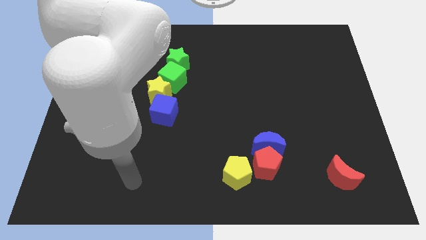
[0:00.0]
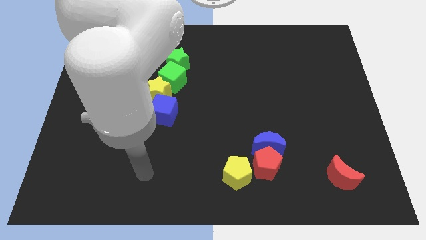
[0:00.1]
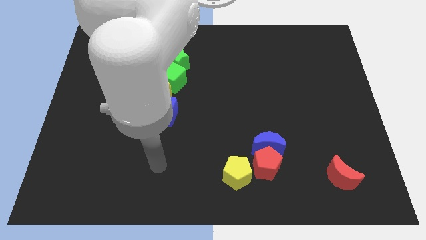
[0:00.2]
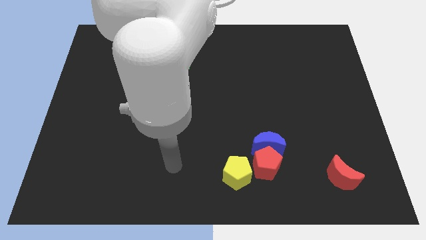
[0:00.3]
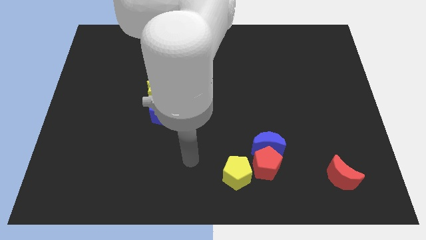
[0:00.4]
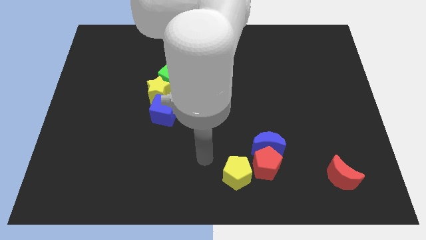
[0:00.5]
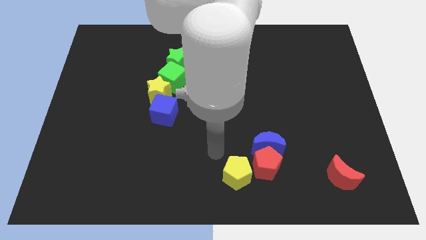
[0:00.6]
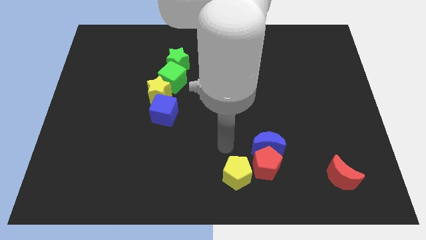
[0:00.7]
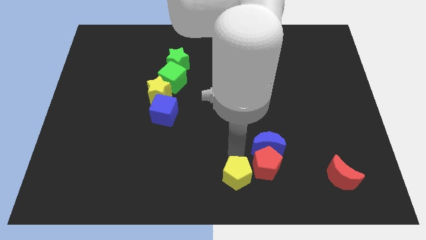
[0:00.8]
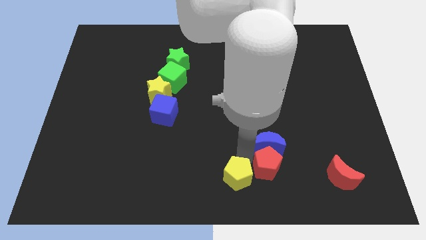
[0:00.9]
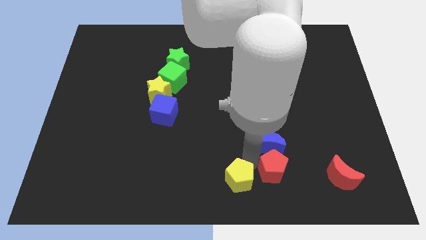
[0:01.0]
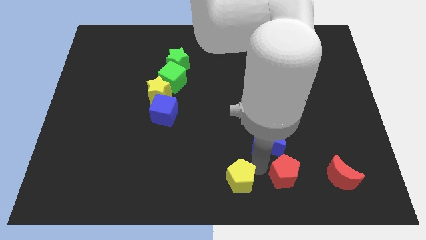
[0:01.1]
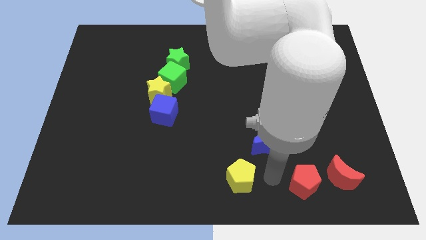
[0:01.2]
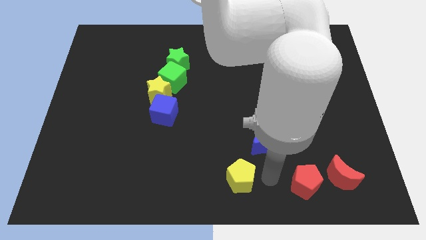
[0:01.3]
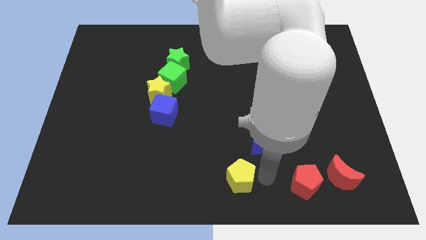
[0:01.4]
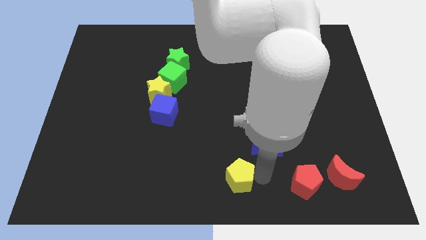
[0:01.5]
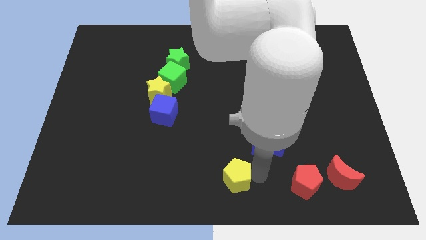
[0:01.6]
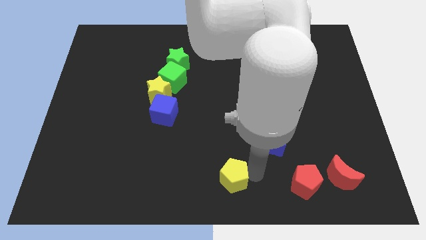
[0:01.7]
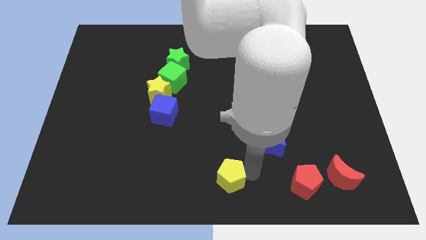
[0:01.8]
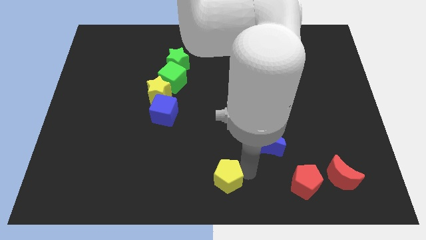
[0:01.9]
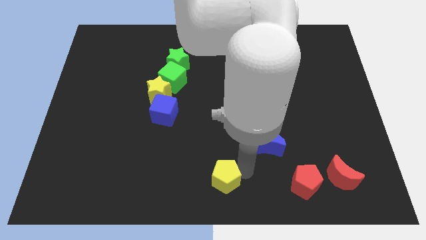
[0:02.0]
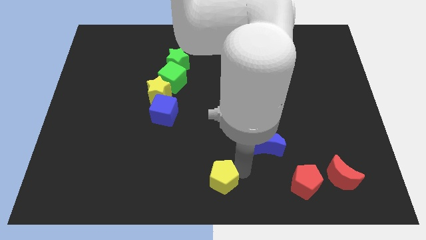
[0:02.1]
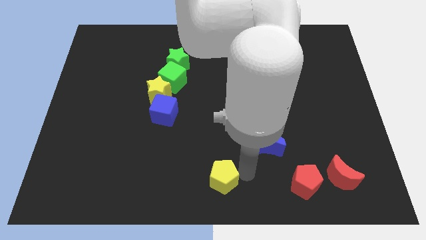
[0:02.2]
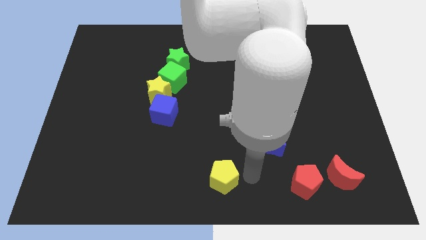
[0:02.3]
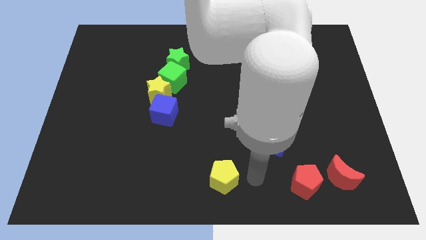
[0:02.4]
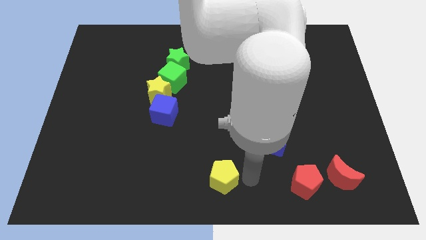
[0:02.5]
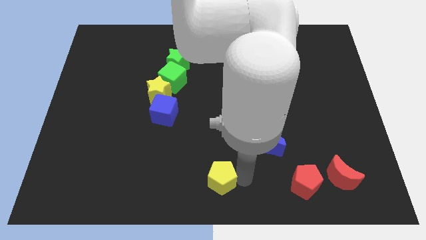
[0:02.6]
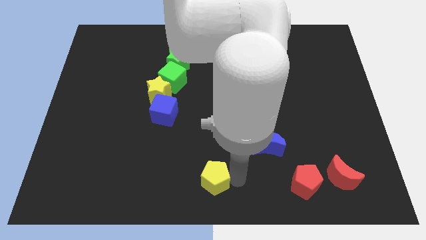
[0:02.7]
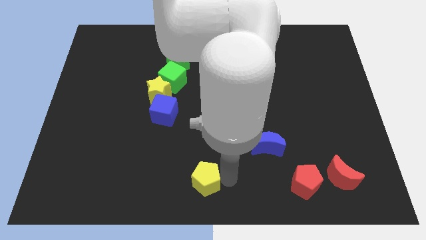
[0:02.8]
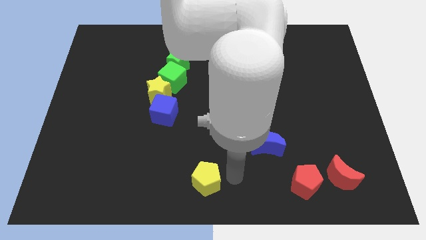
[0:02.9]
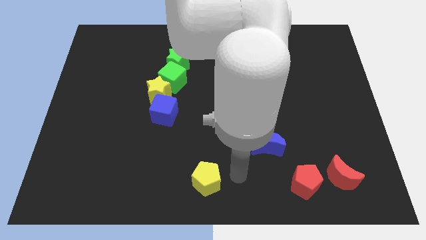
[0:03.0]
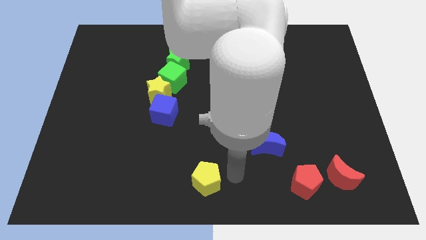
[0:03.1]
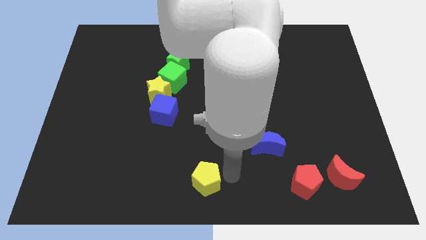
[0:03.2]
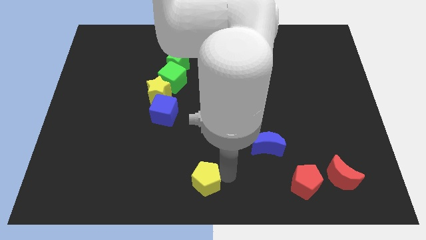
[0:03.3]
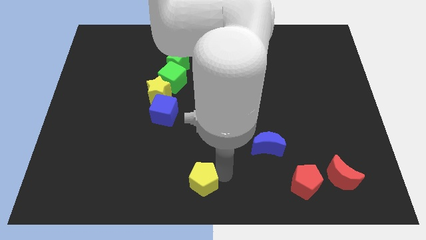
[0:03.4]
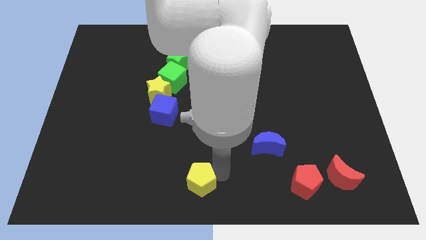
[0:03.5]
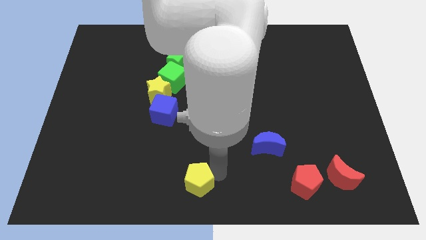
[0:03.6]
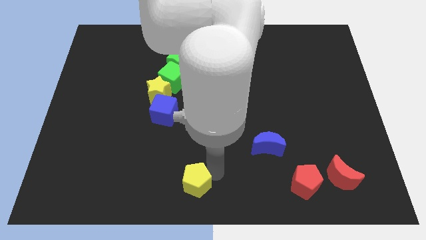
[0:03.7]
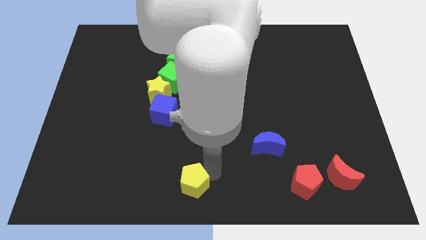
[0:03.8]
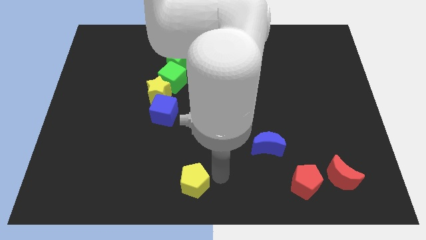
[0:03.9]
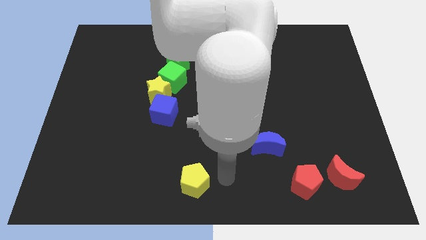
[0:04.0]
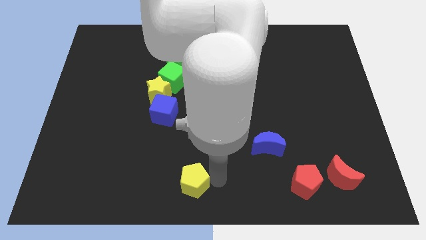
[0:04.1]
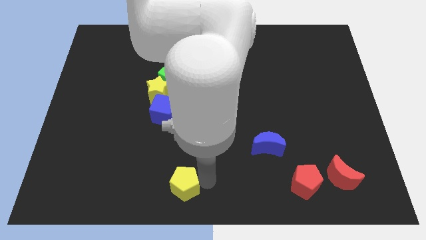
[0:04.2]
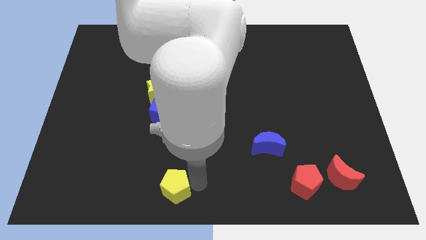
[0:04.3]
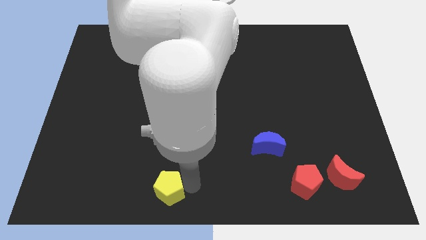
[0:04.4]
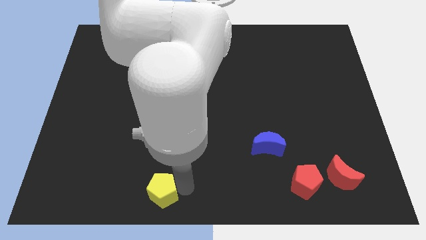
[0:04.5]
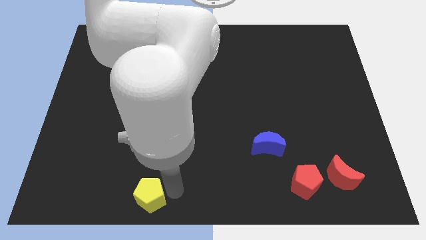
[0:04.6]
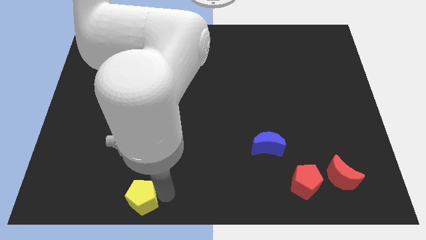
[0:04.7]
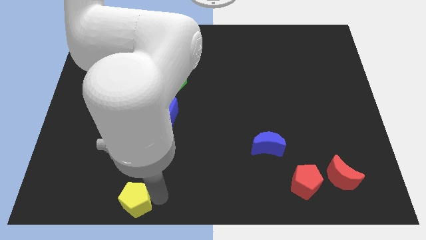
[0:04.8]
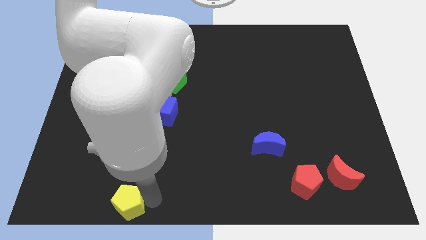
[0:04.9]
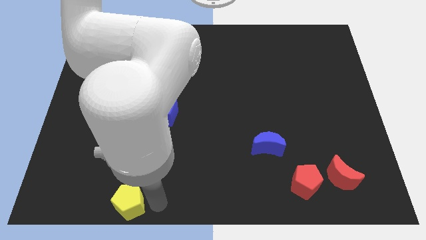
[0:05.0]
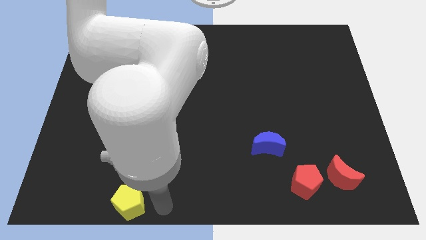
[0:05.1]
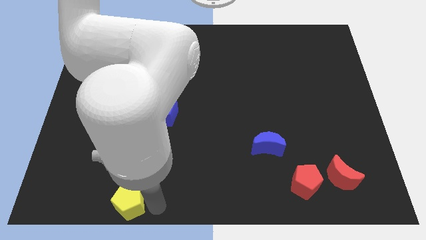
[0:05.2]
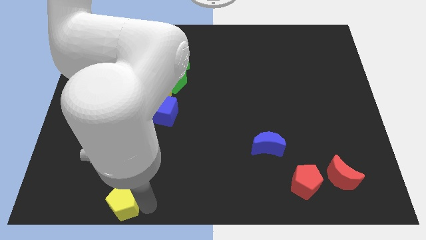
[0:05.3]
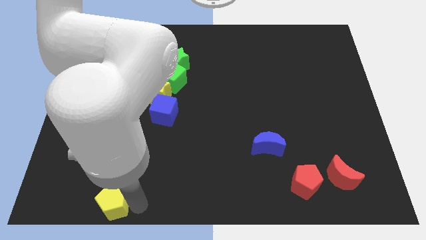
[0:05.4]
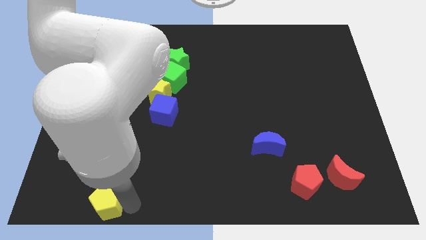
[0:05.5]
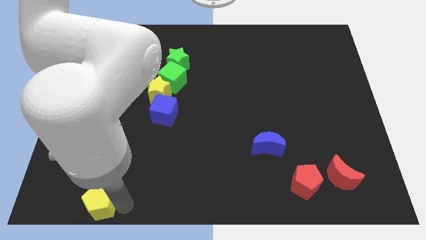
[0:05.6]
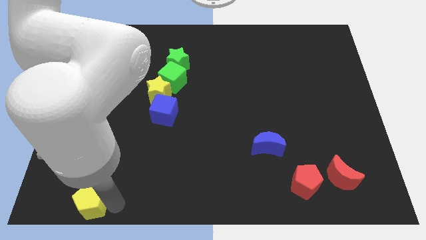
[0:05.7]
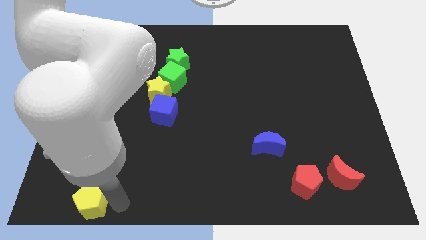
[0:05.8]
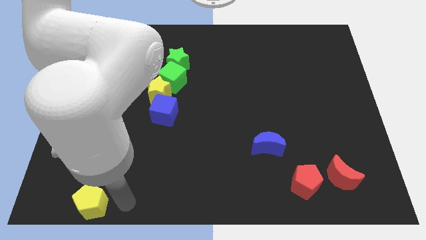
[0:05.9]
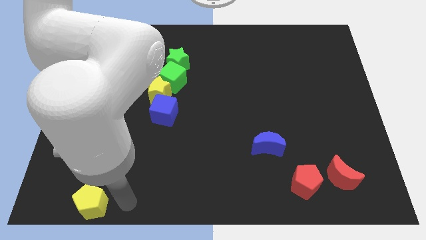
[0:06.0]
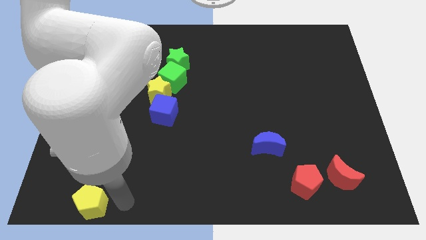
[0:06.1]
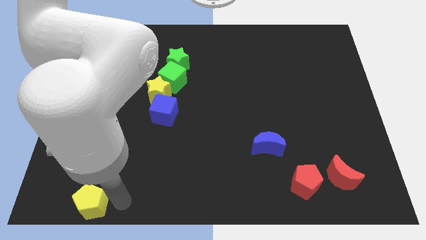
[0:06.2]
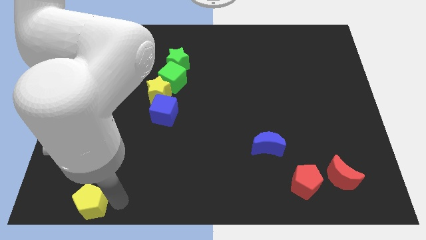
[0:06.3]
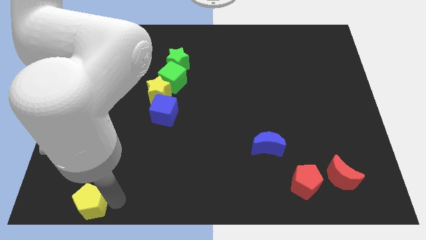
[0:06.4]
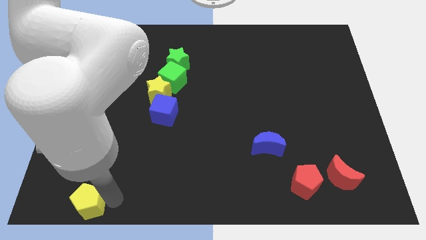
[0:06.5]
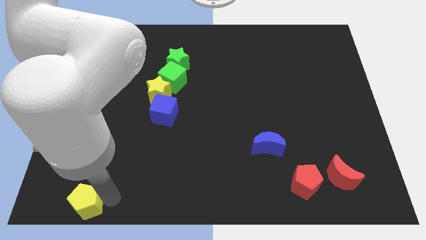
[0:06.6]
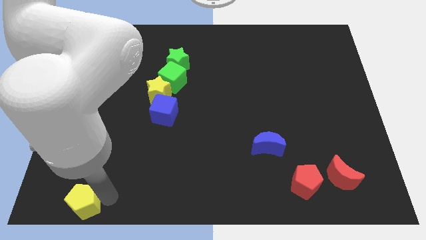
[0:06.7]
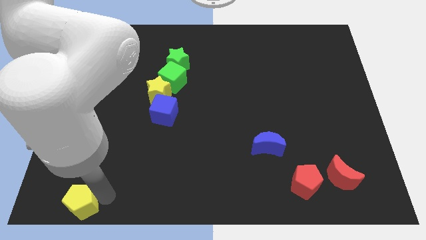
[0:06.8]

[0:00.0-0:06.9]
slide the yellow pentagon to the bottom left of the board

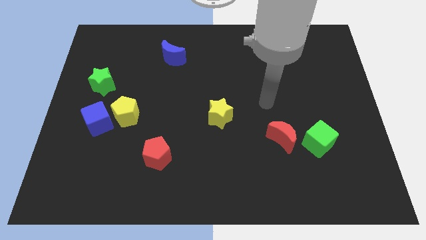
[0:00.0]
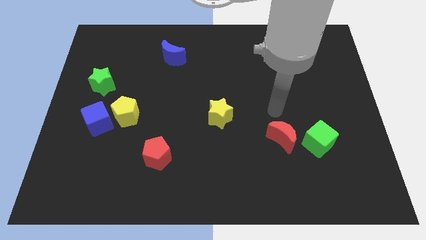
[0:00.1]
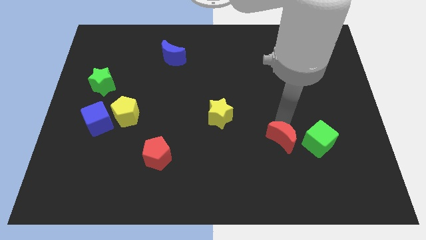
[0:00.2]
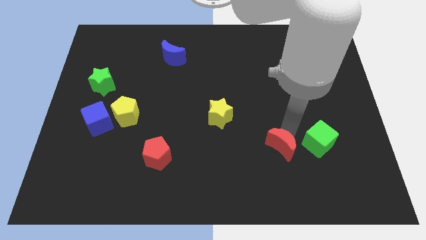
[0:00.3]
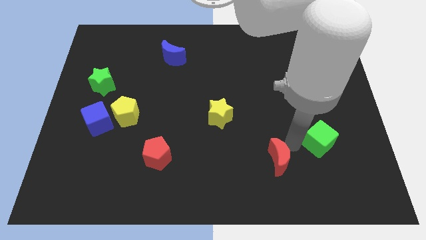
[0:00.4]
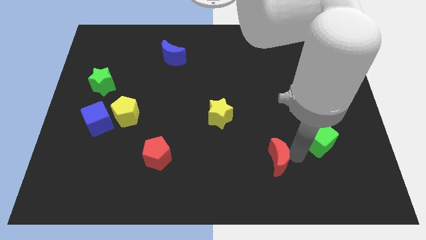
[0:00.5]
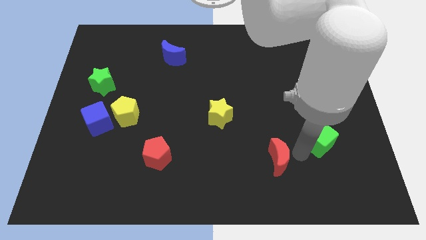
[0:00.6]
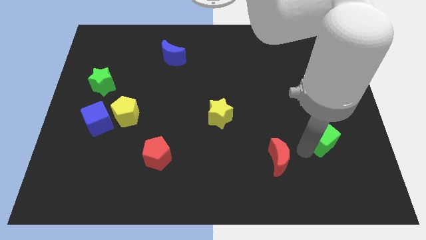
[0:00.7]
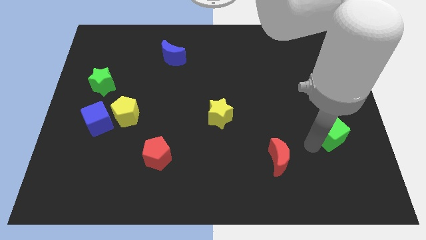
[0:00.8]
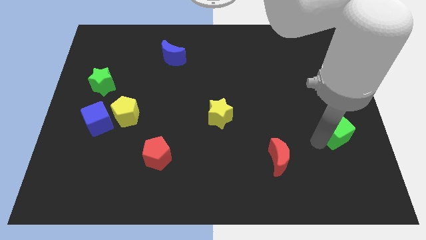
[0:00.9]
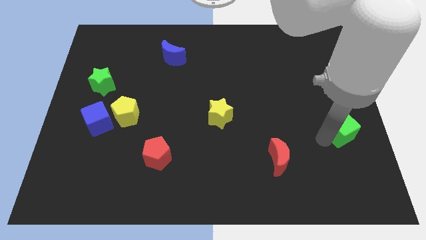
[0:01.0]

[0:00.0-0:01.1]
move the green cube to the right side of the board
